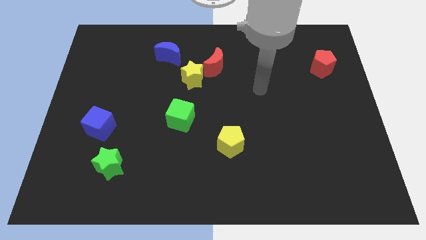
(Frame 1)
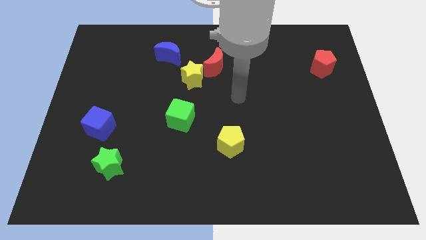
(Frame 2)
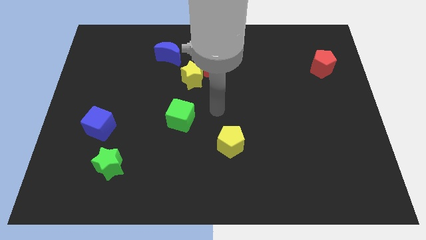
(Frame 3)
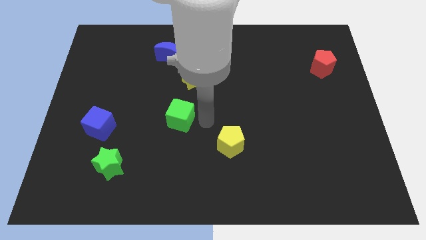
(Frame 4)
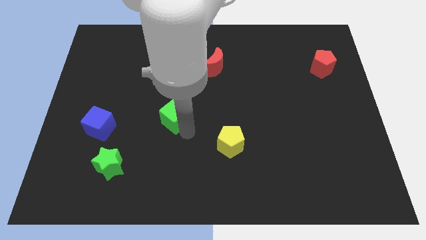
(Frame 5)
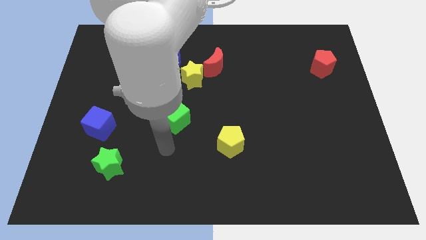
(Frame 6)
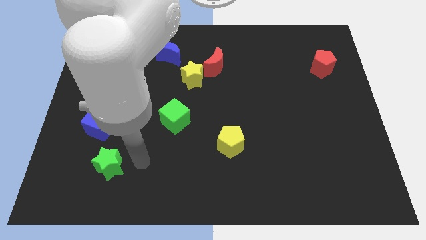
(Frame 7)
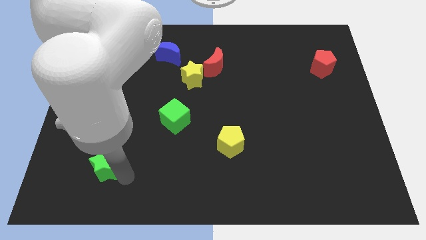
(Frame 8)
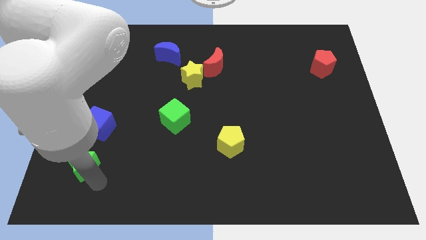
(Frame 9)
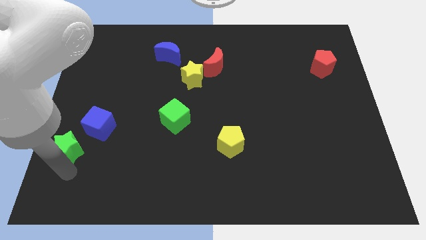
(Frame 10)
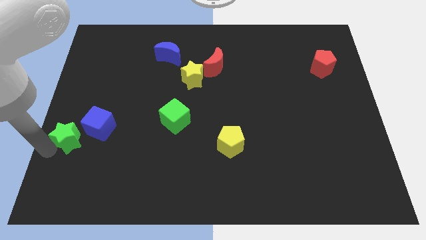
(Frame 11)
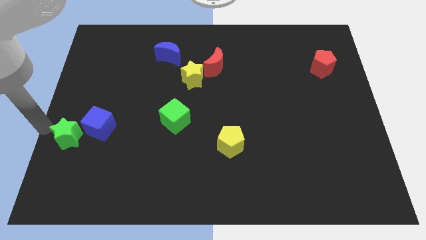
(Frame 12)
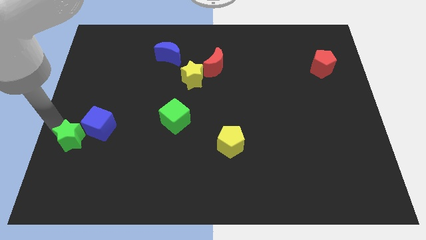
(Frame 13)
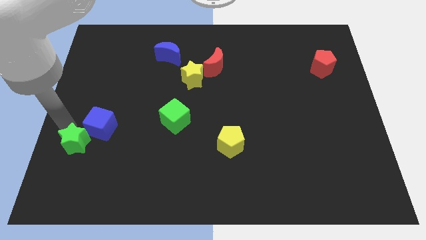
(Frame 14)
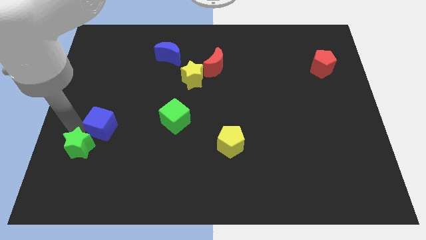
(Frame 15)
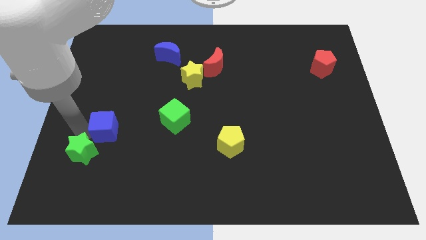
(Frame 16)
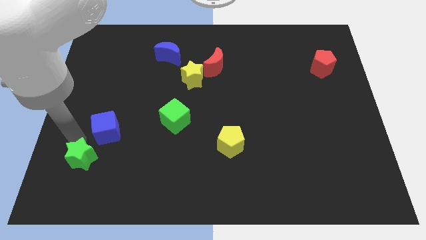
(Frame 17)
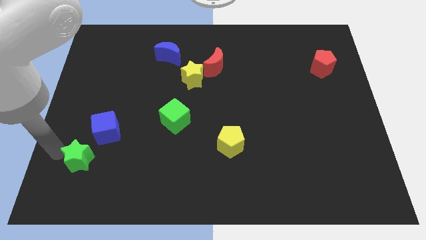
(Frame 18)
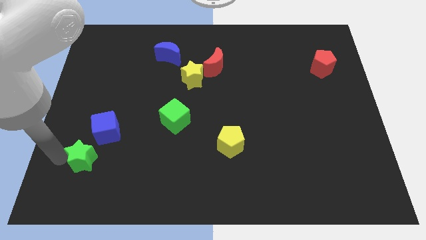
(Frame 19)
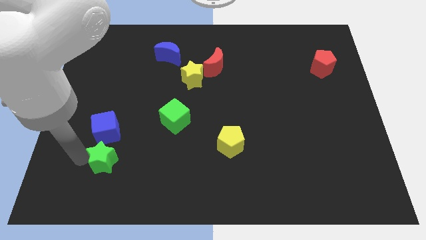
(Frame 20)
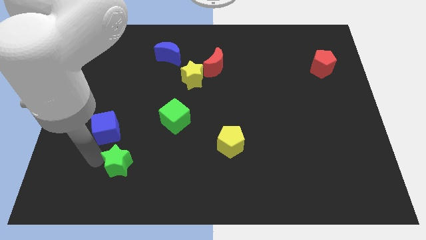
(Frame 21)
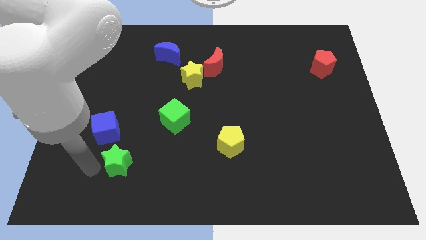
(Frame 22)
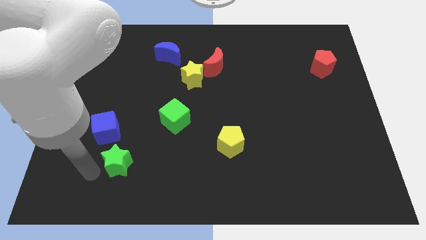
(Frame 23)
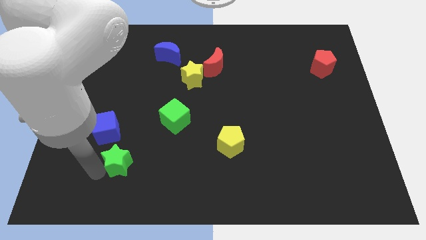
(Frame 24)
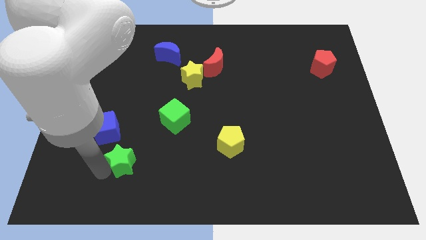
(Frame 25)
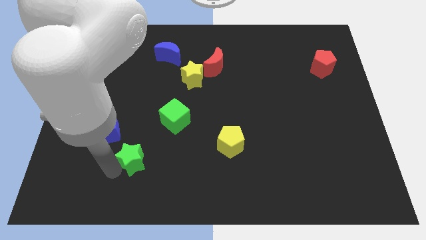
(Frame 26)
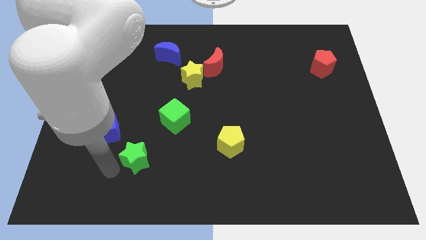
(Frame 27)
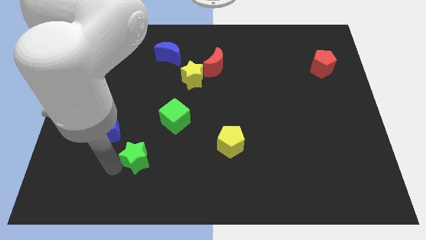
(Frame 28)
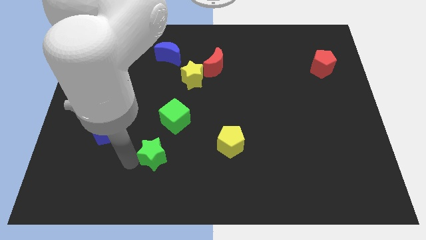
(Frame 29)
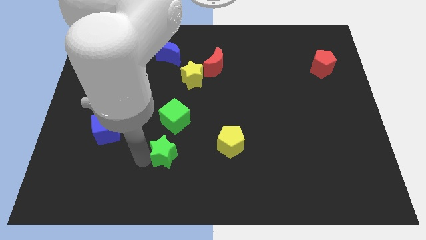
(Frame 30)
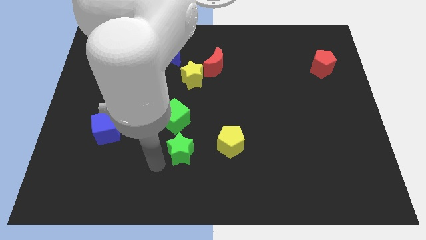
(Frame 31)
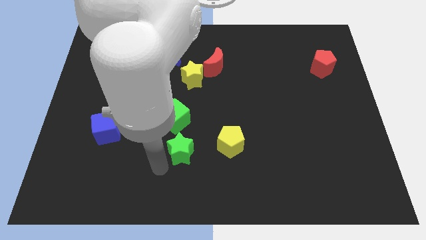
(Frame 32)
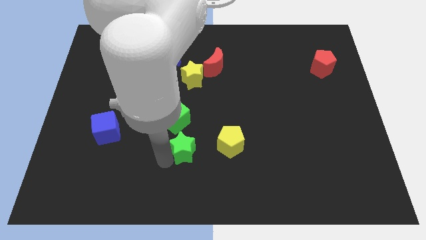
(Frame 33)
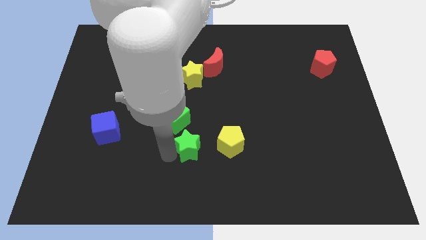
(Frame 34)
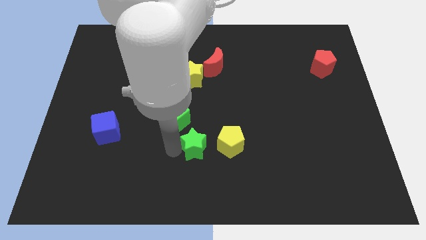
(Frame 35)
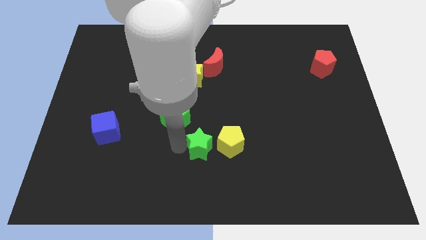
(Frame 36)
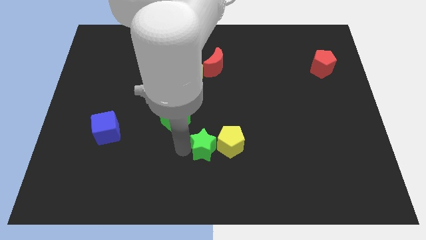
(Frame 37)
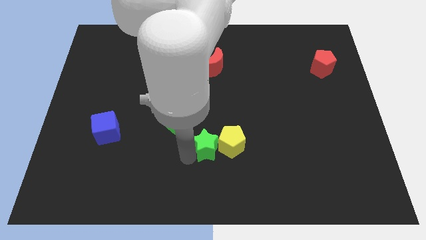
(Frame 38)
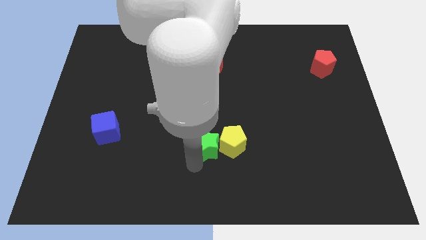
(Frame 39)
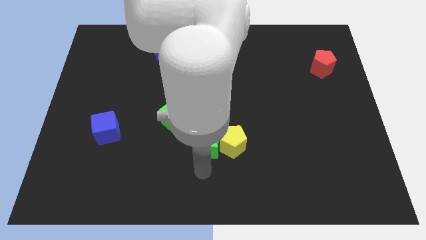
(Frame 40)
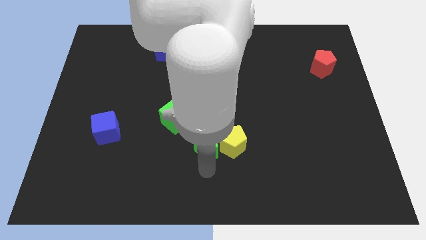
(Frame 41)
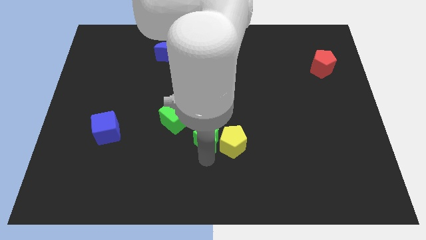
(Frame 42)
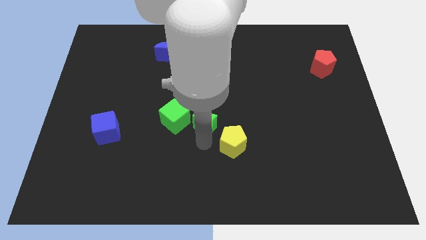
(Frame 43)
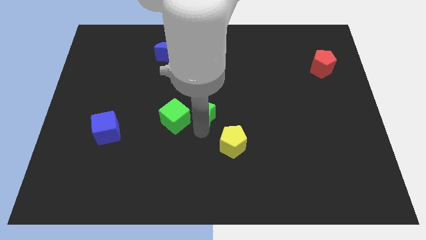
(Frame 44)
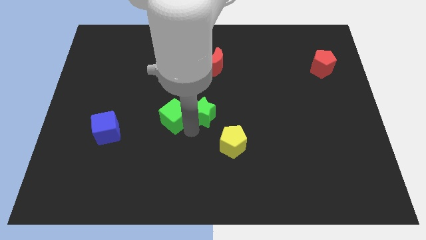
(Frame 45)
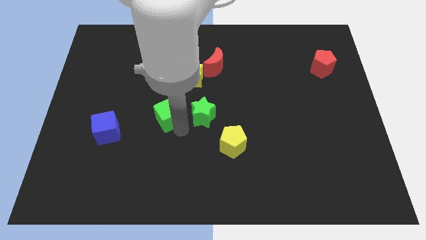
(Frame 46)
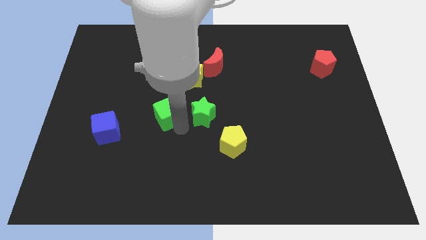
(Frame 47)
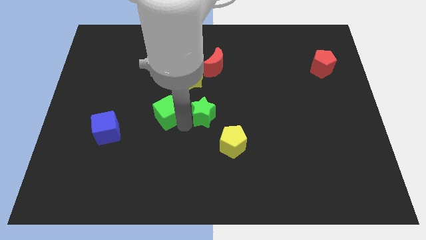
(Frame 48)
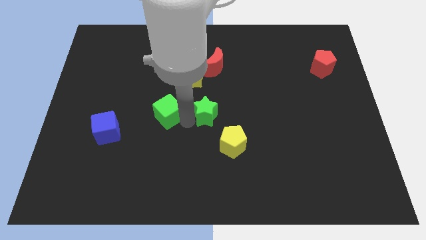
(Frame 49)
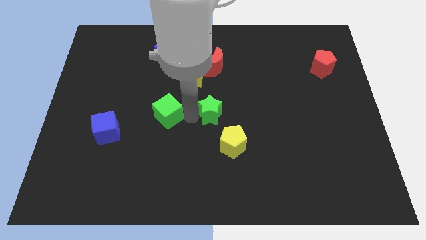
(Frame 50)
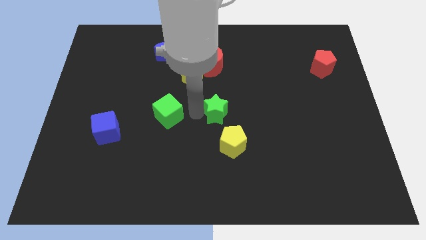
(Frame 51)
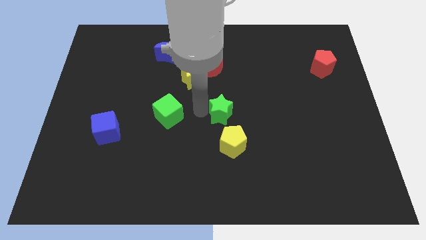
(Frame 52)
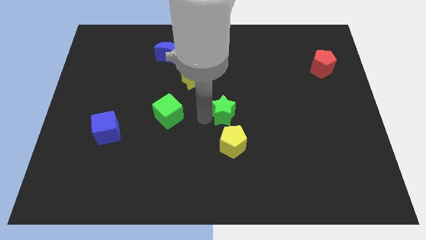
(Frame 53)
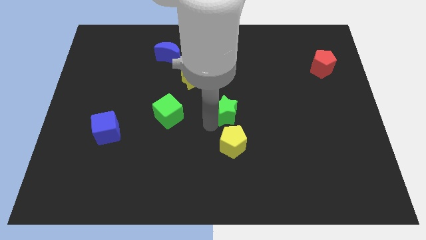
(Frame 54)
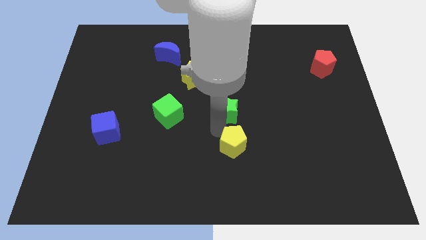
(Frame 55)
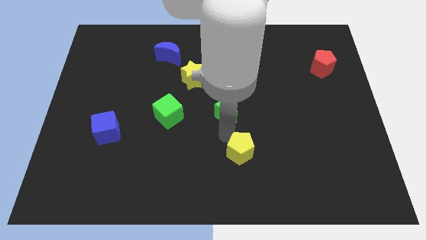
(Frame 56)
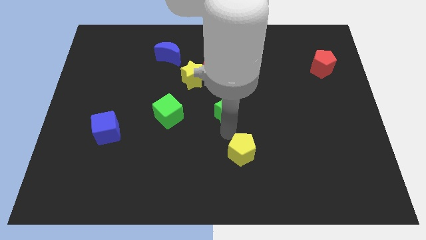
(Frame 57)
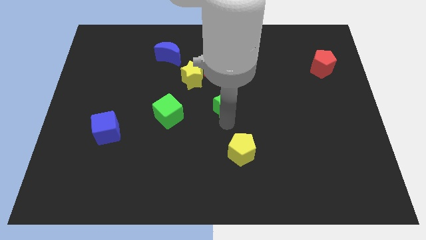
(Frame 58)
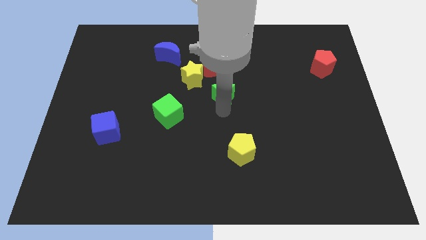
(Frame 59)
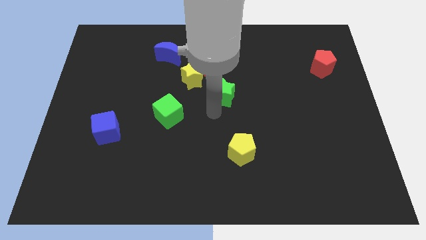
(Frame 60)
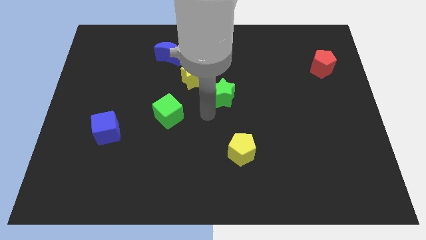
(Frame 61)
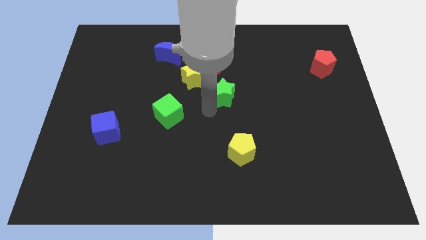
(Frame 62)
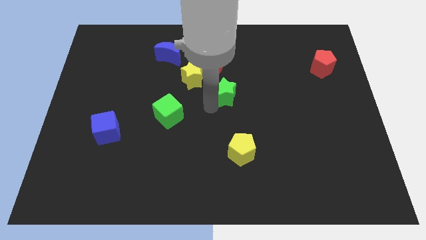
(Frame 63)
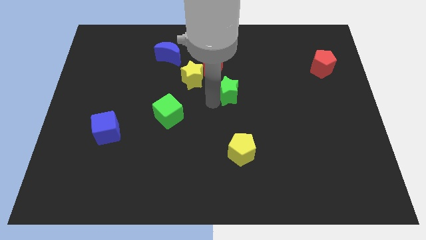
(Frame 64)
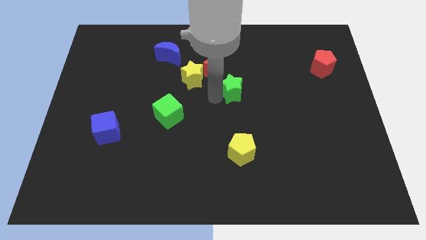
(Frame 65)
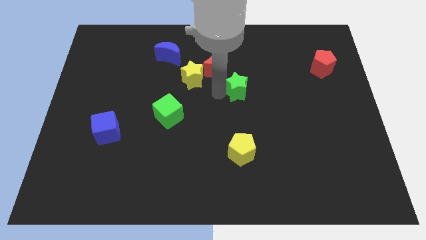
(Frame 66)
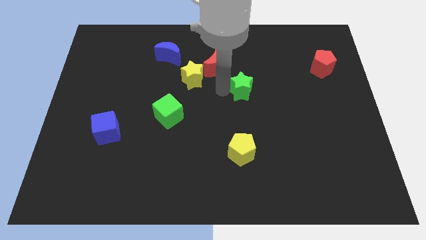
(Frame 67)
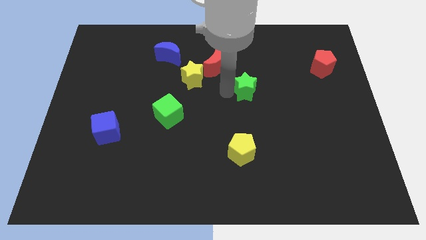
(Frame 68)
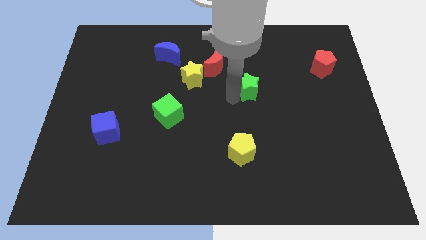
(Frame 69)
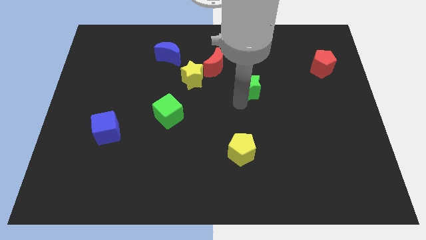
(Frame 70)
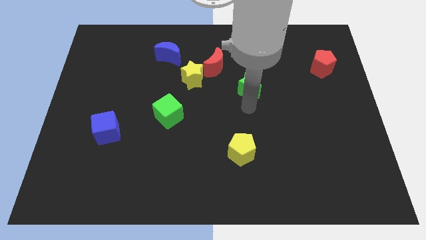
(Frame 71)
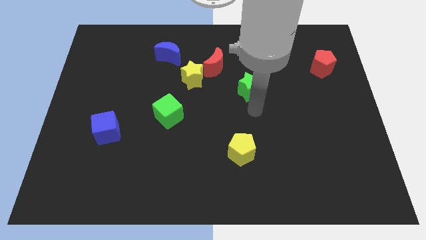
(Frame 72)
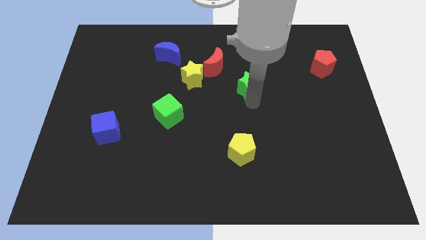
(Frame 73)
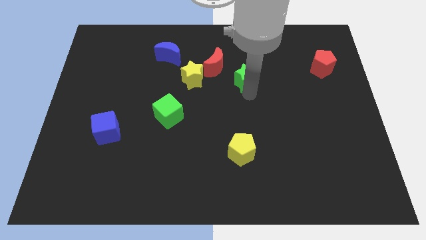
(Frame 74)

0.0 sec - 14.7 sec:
slide the green star to the right side of the red moon
